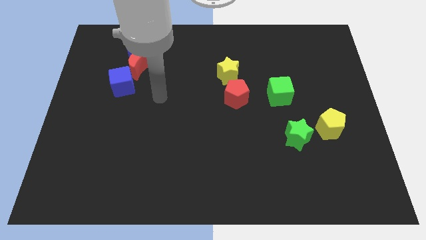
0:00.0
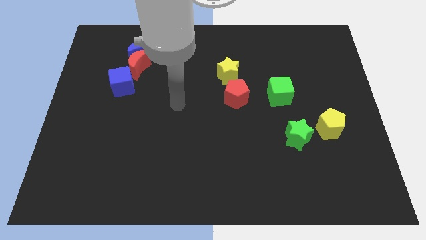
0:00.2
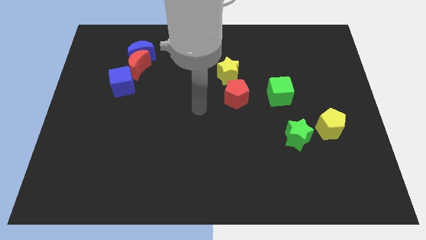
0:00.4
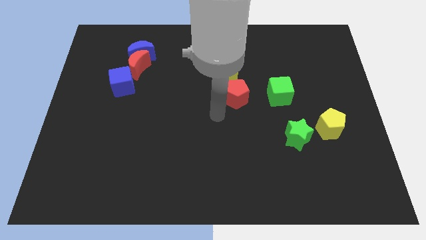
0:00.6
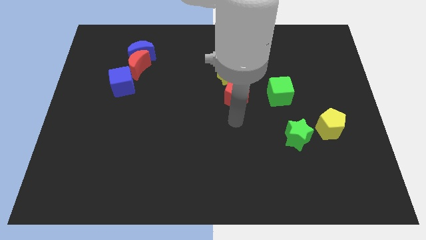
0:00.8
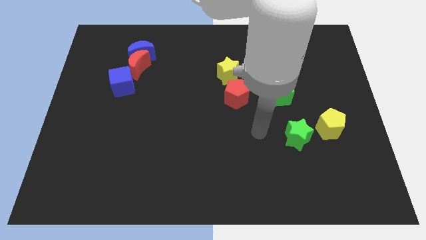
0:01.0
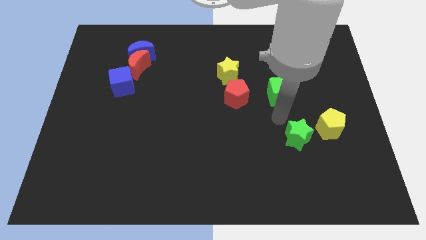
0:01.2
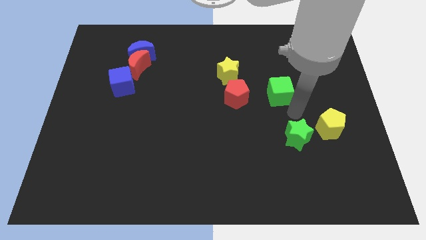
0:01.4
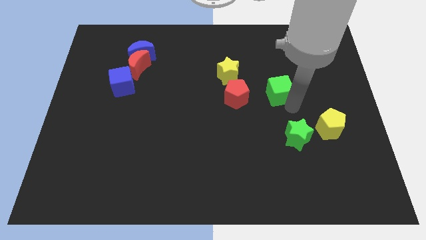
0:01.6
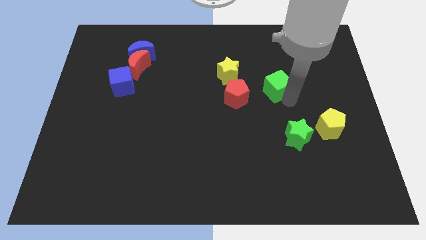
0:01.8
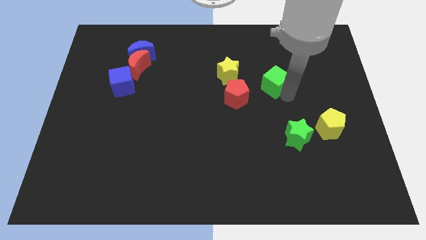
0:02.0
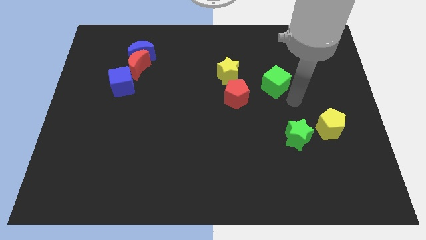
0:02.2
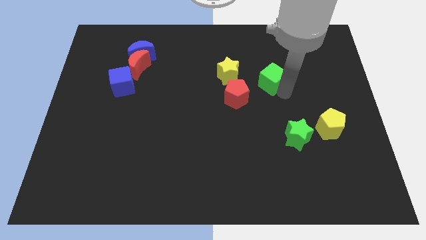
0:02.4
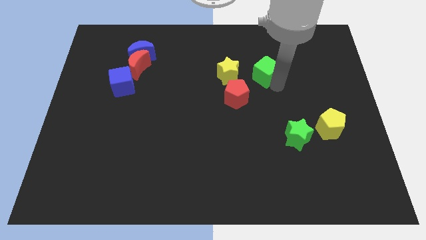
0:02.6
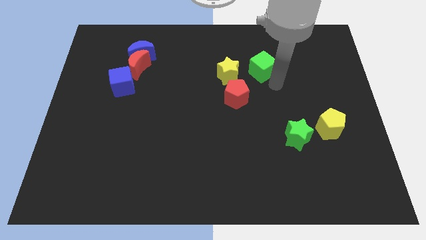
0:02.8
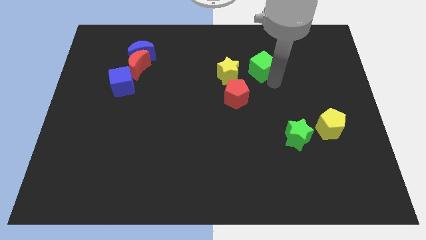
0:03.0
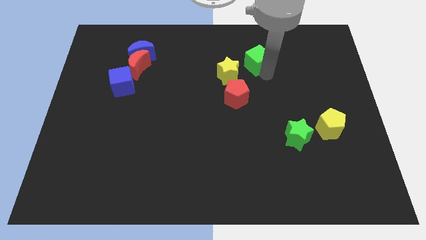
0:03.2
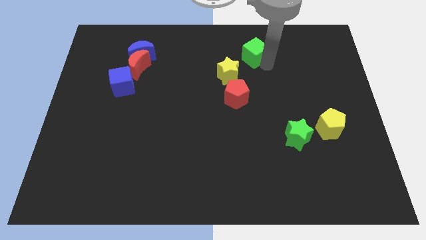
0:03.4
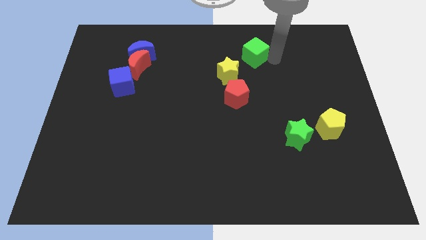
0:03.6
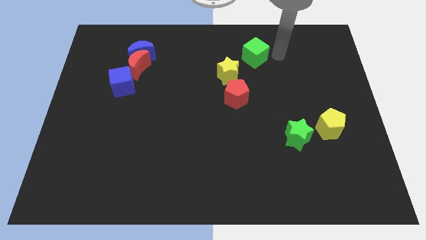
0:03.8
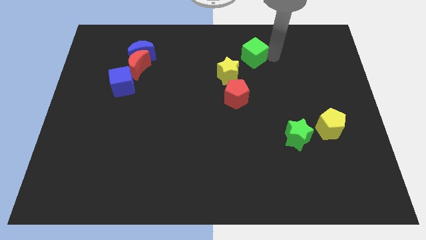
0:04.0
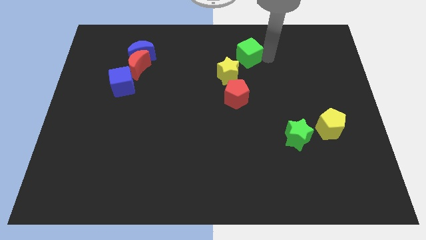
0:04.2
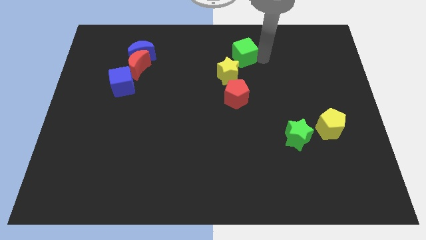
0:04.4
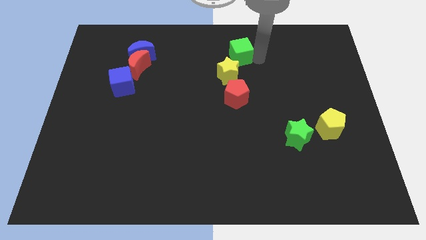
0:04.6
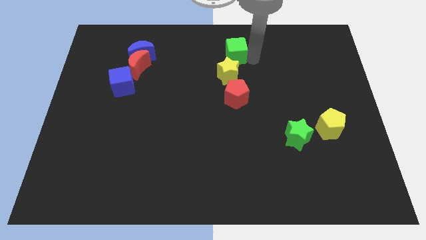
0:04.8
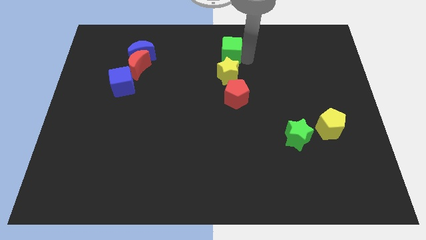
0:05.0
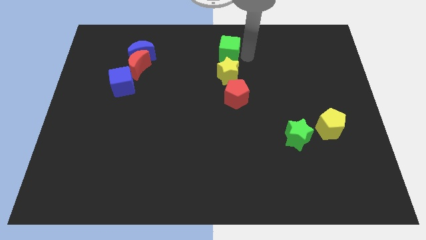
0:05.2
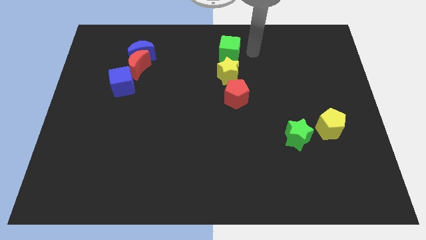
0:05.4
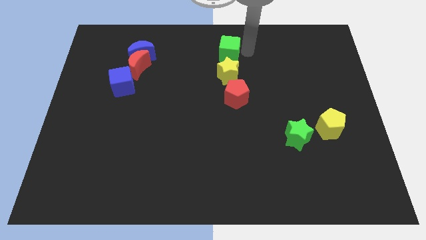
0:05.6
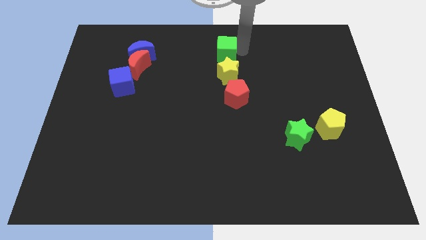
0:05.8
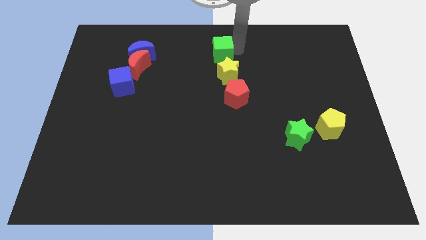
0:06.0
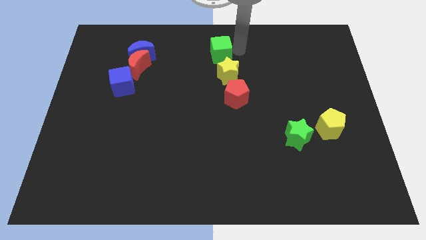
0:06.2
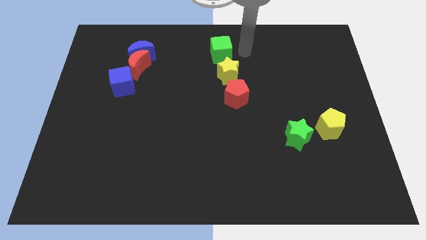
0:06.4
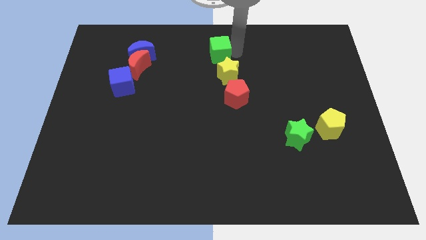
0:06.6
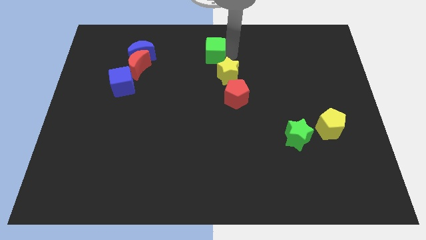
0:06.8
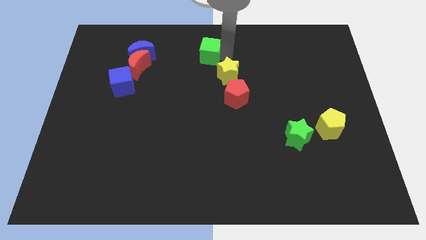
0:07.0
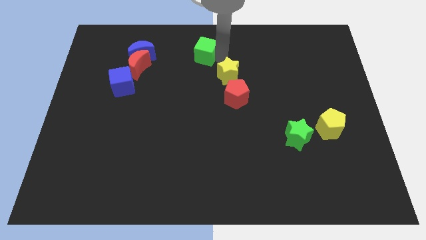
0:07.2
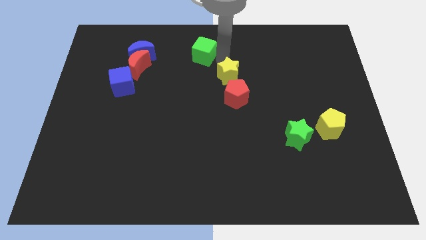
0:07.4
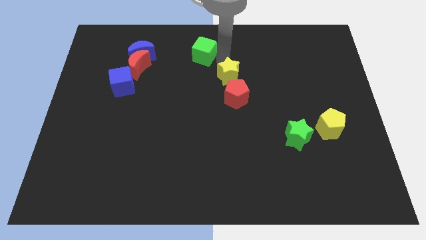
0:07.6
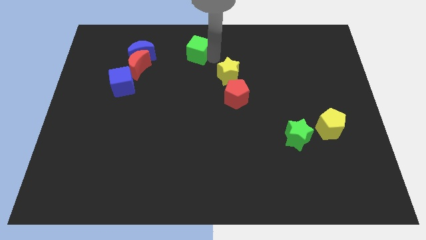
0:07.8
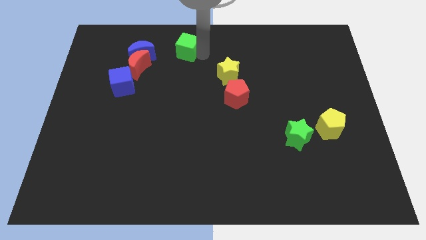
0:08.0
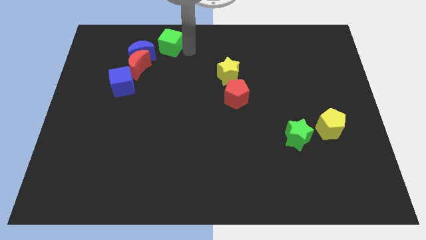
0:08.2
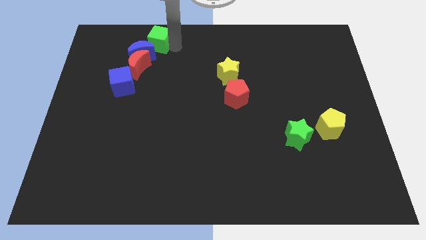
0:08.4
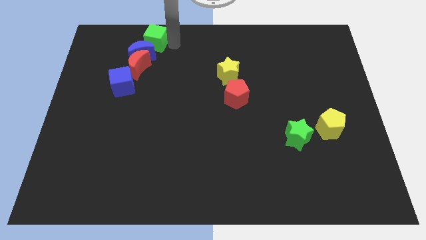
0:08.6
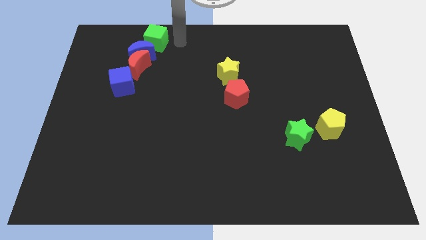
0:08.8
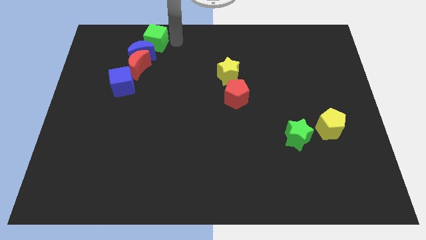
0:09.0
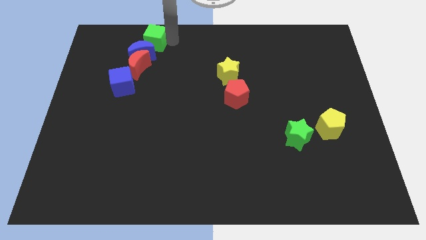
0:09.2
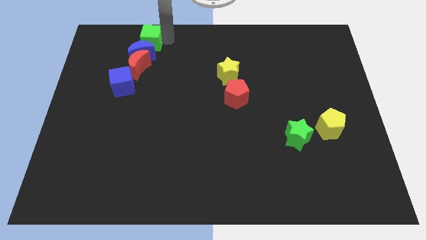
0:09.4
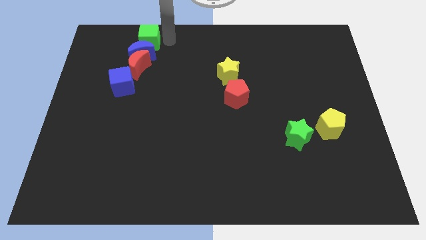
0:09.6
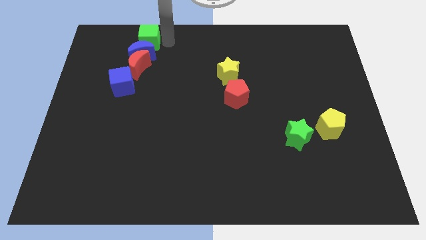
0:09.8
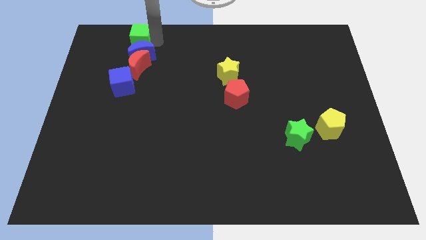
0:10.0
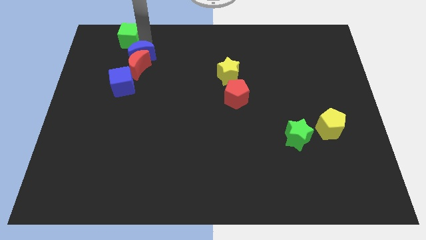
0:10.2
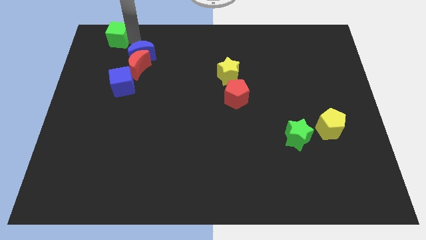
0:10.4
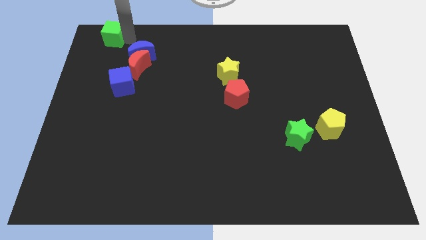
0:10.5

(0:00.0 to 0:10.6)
push the green cube to the top left

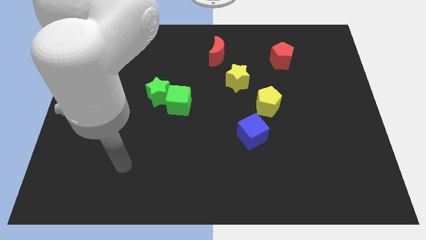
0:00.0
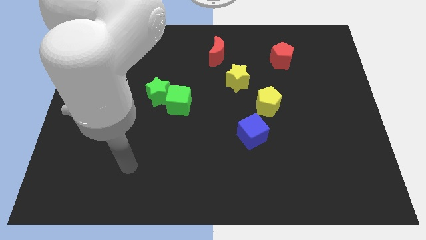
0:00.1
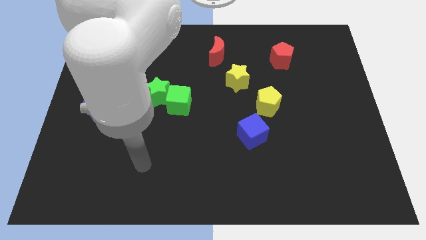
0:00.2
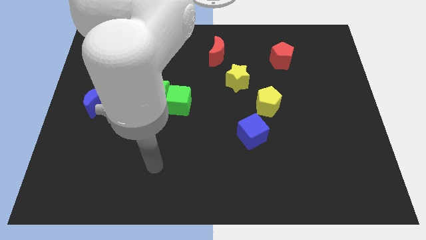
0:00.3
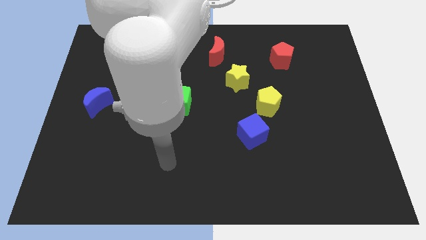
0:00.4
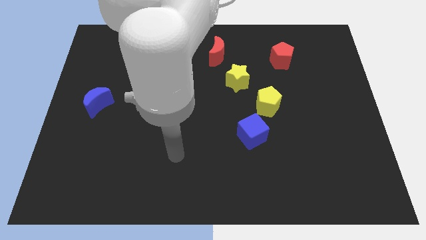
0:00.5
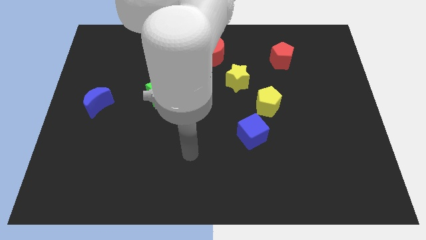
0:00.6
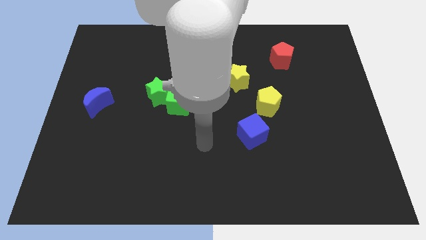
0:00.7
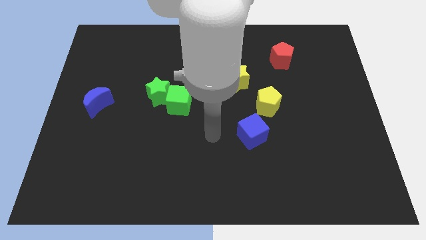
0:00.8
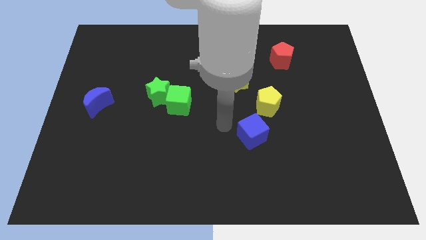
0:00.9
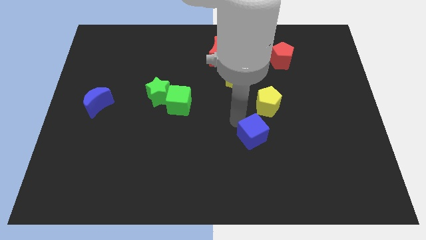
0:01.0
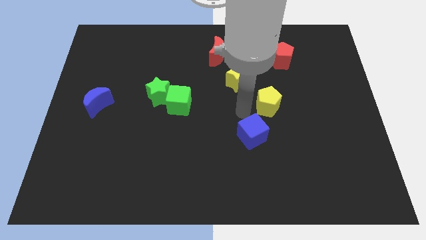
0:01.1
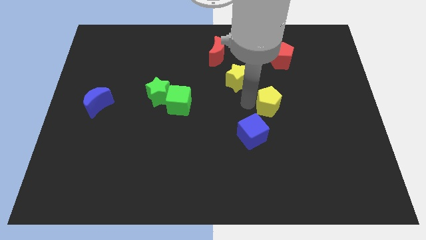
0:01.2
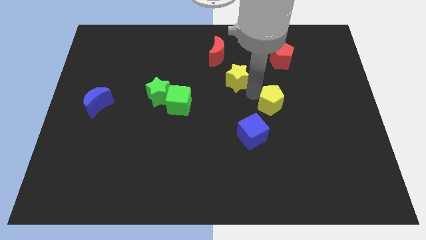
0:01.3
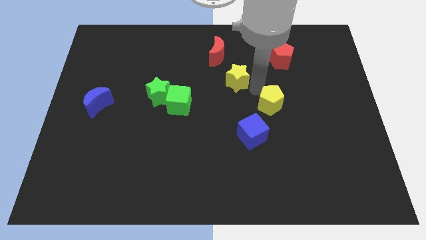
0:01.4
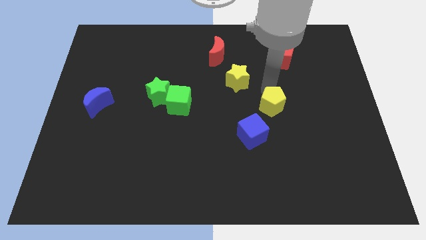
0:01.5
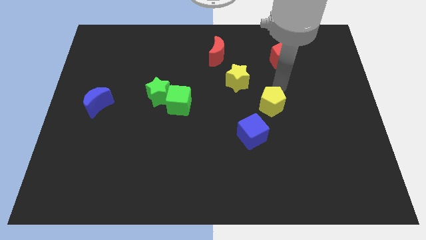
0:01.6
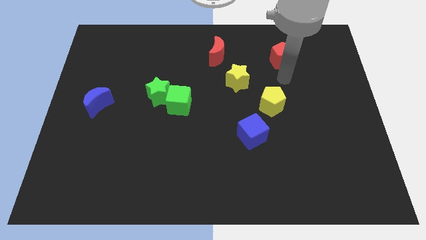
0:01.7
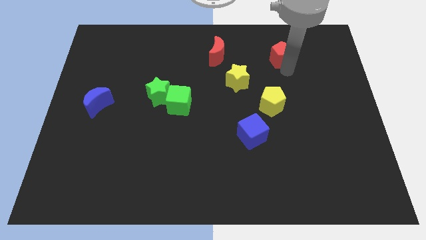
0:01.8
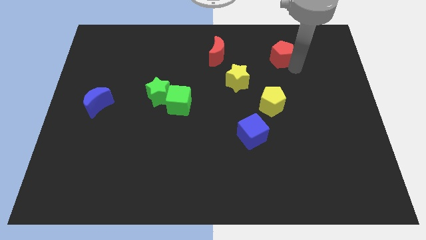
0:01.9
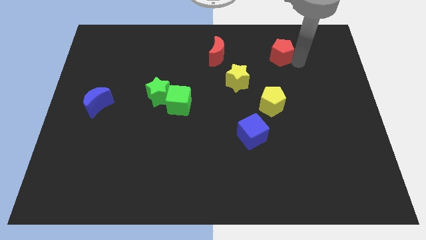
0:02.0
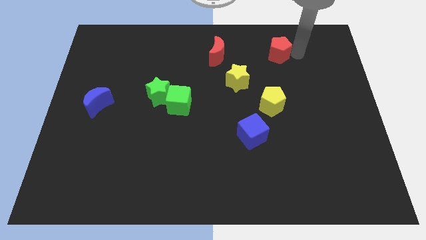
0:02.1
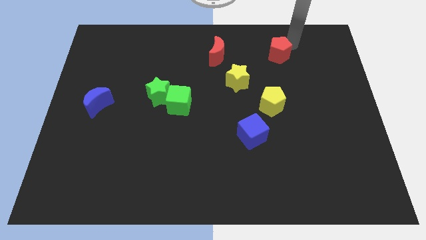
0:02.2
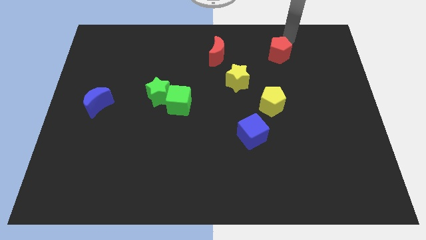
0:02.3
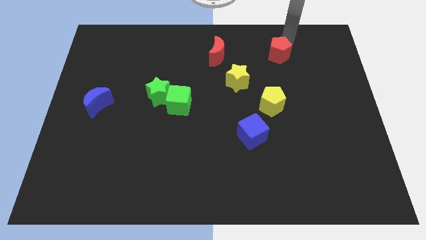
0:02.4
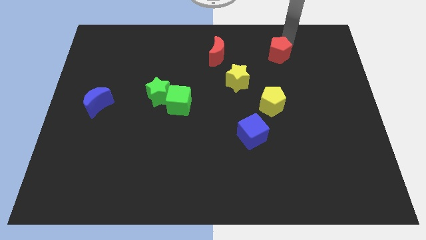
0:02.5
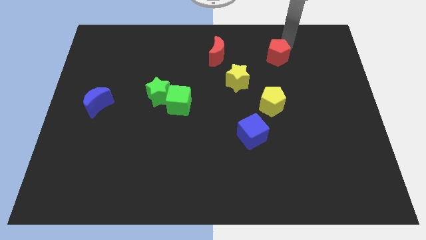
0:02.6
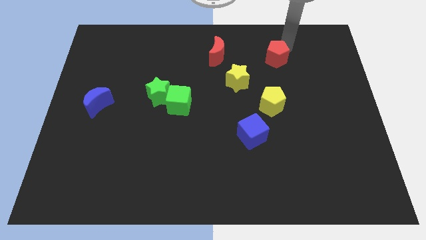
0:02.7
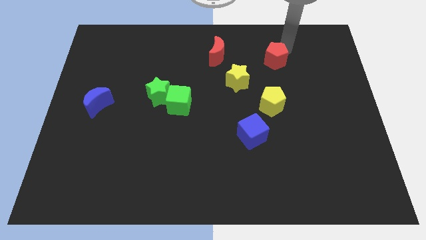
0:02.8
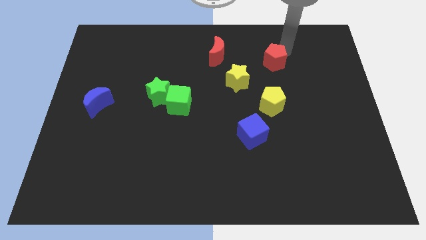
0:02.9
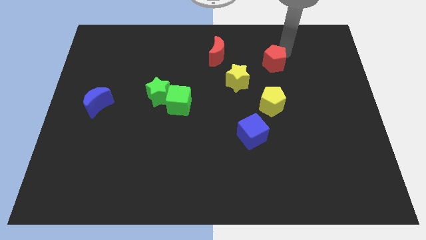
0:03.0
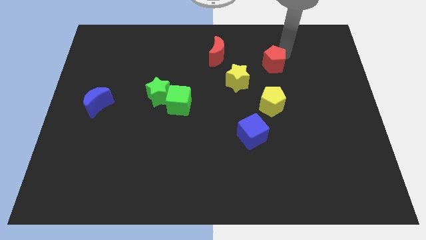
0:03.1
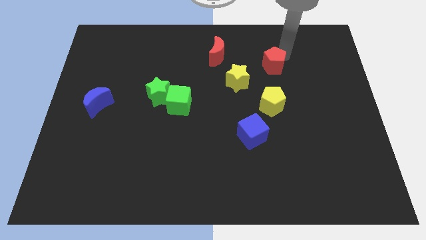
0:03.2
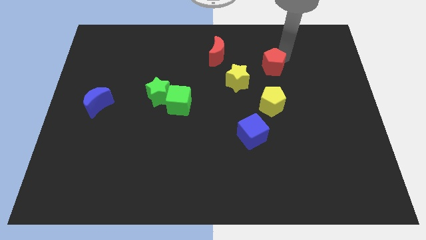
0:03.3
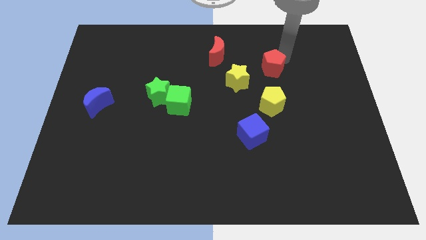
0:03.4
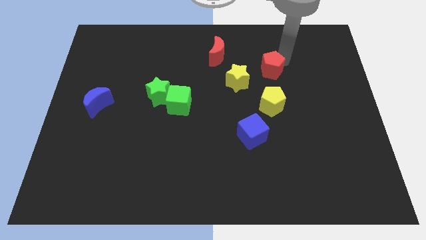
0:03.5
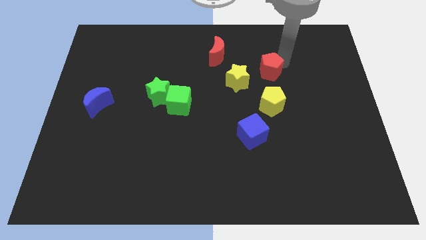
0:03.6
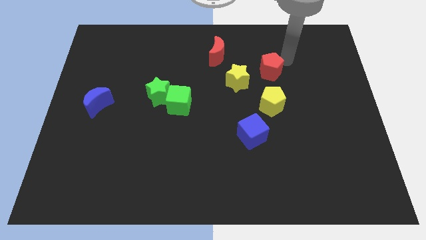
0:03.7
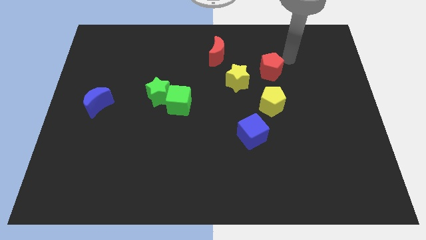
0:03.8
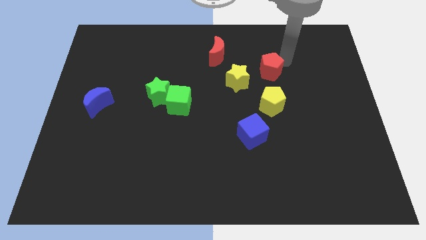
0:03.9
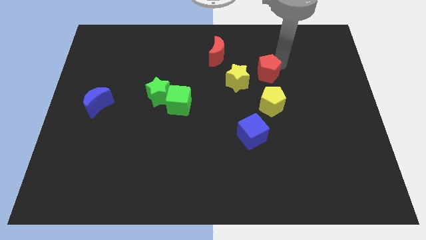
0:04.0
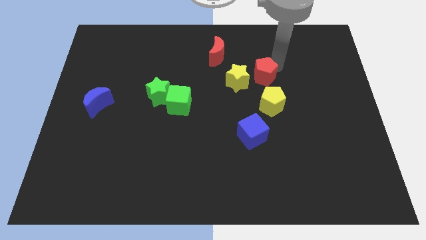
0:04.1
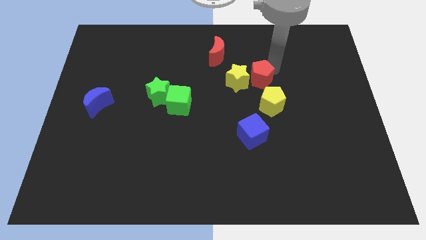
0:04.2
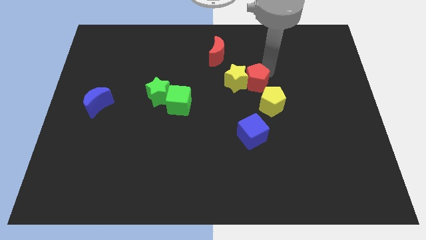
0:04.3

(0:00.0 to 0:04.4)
move the red pentagon to the center of the board
